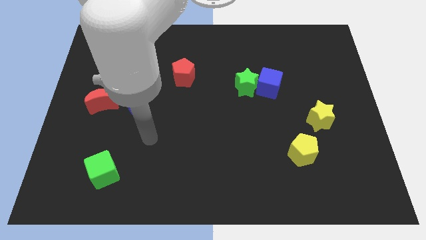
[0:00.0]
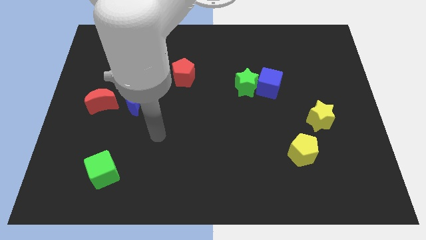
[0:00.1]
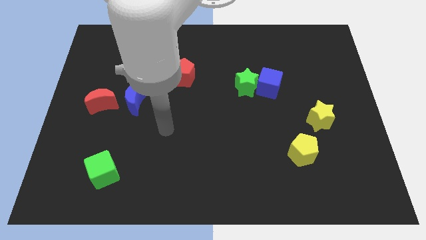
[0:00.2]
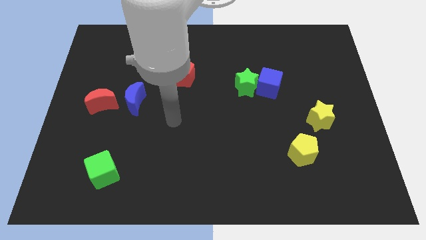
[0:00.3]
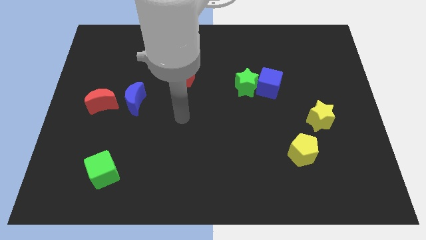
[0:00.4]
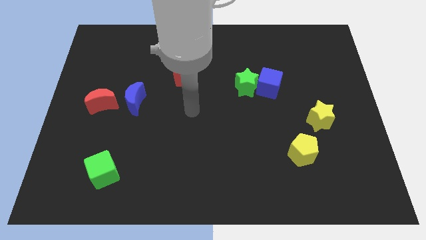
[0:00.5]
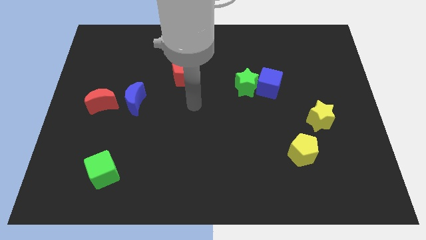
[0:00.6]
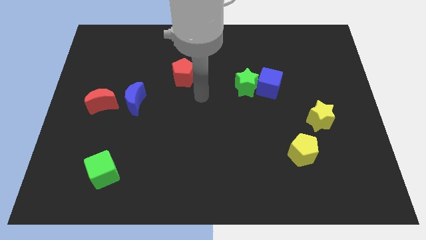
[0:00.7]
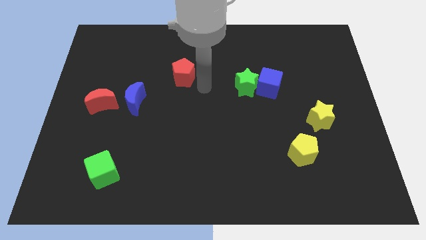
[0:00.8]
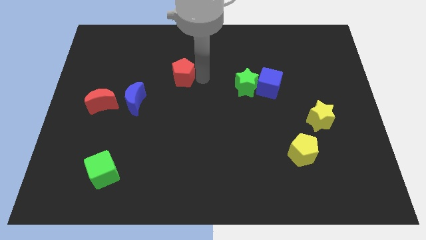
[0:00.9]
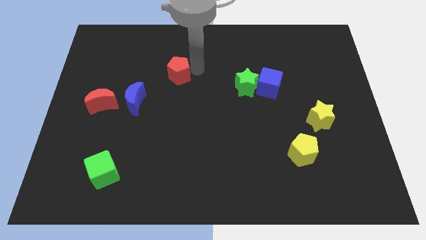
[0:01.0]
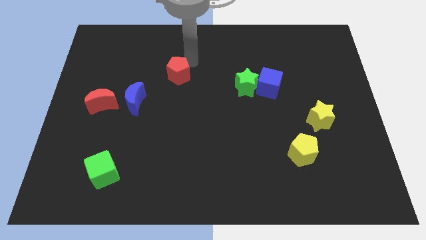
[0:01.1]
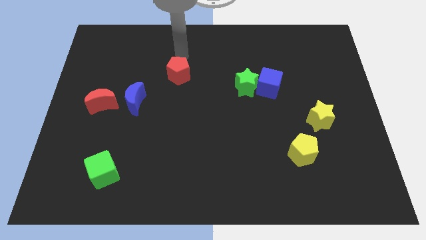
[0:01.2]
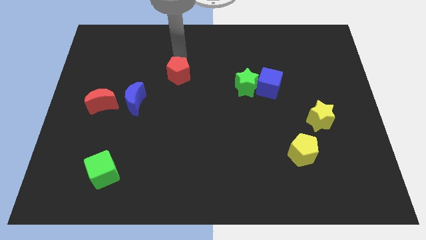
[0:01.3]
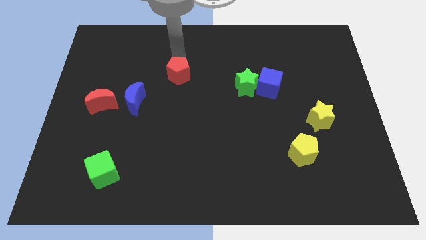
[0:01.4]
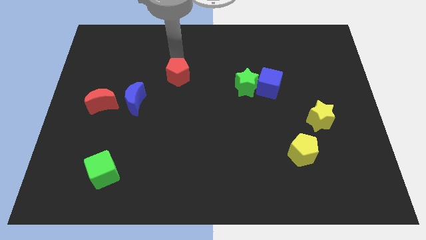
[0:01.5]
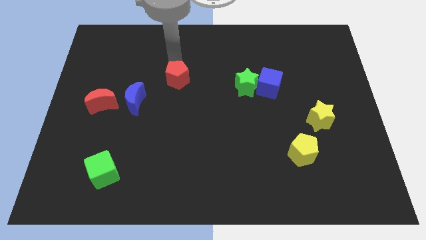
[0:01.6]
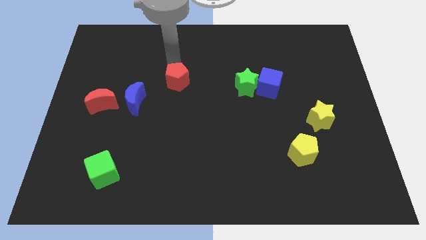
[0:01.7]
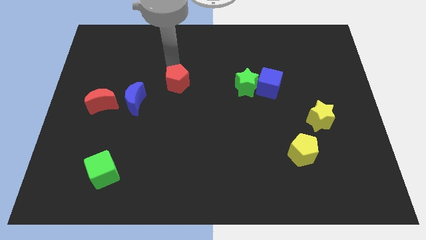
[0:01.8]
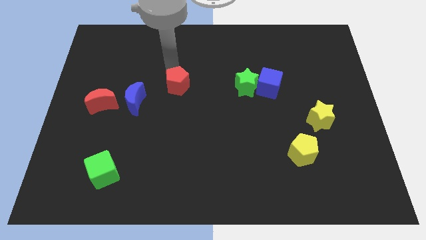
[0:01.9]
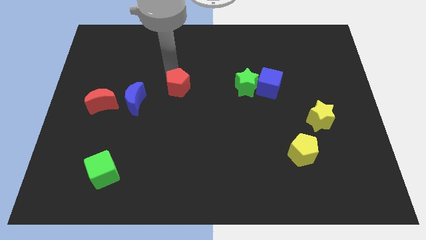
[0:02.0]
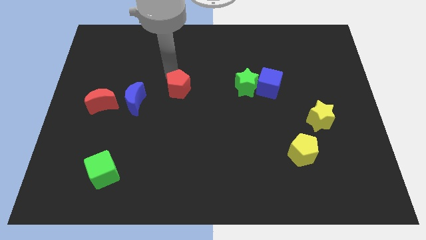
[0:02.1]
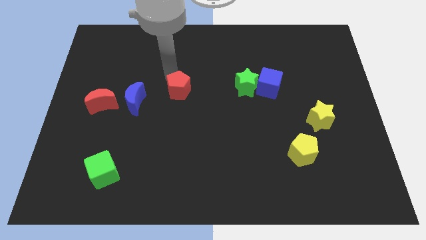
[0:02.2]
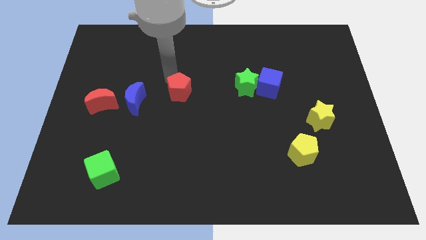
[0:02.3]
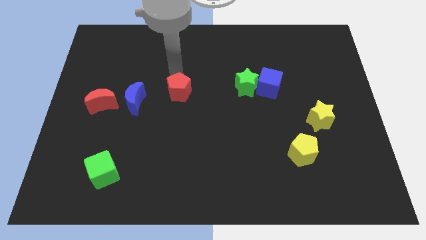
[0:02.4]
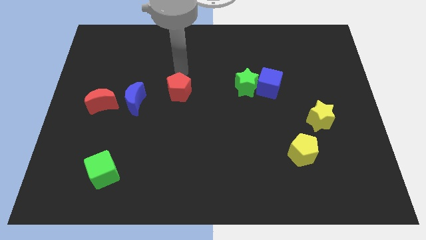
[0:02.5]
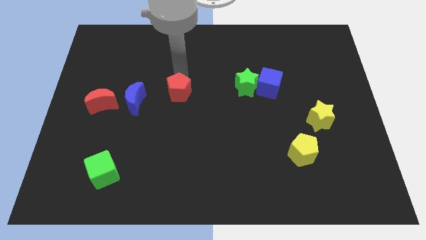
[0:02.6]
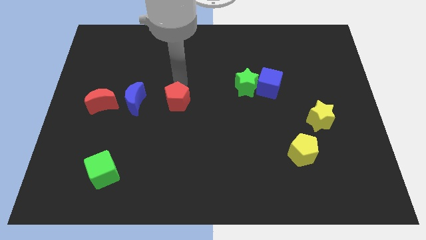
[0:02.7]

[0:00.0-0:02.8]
slightly slide the red pentagon downwards

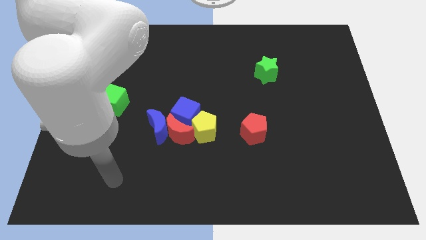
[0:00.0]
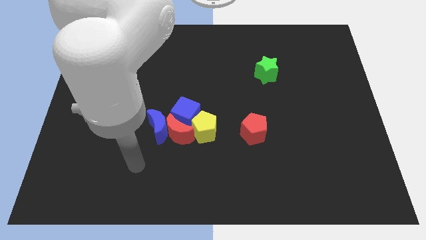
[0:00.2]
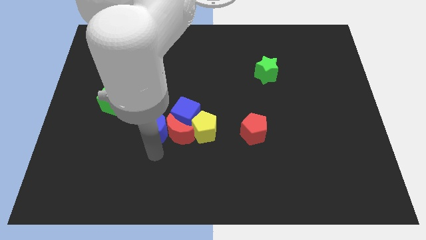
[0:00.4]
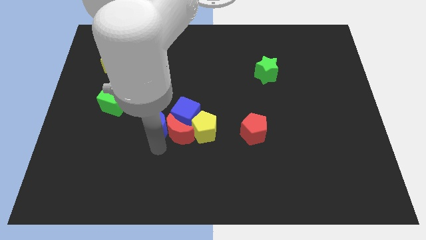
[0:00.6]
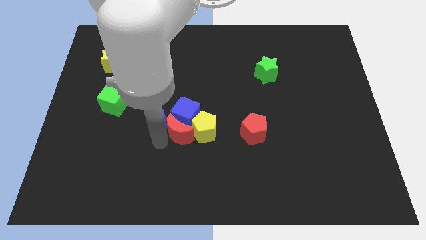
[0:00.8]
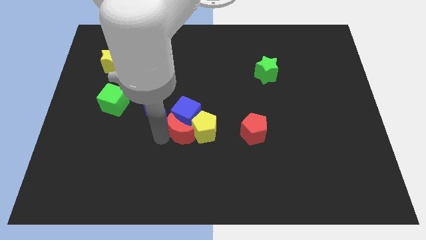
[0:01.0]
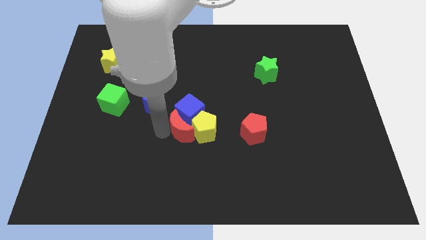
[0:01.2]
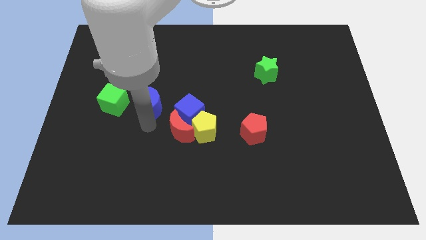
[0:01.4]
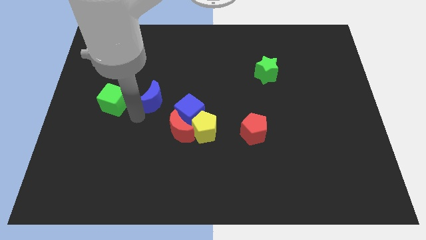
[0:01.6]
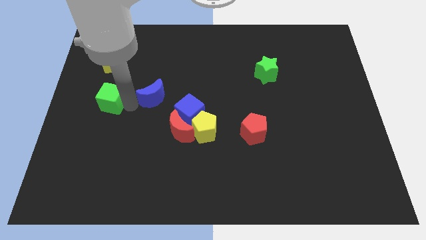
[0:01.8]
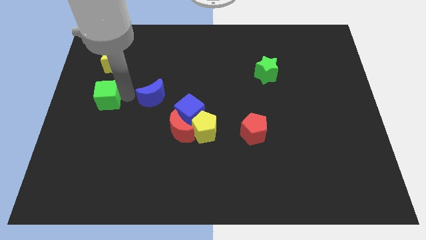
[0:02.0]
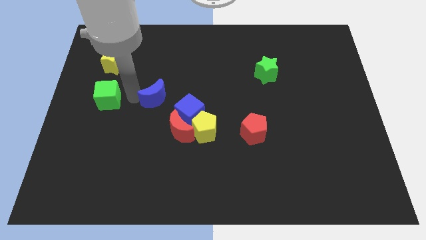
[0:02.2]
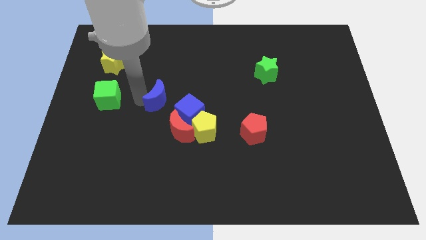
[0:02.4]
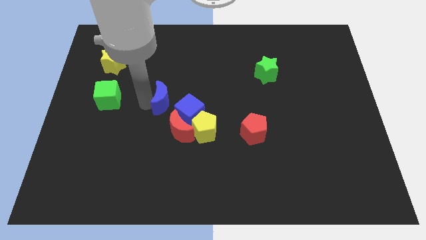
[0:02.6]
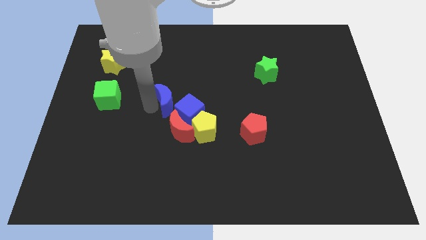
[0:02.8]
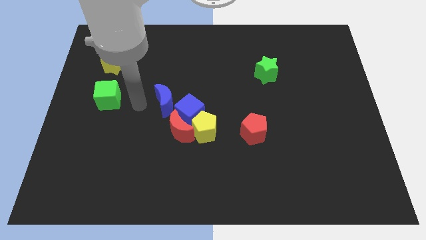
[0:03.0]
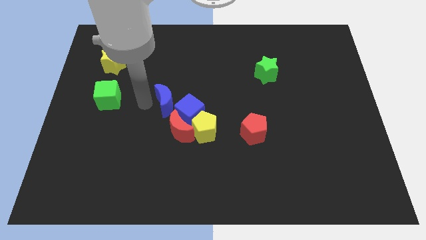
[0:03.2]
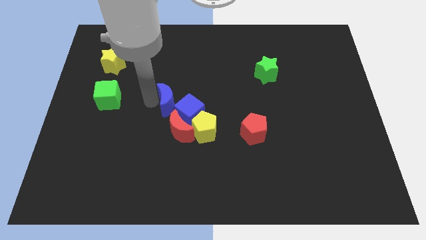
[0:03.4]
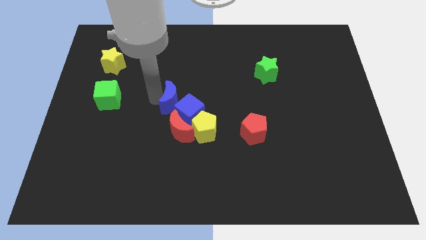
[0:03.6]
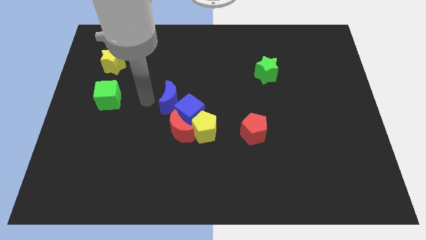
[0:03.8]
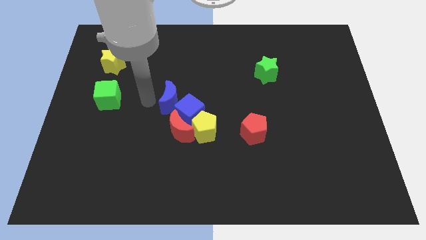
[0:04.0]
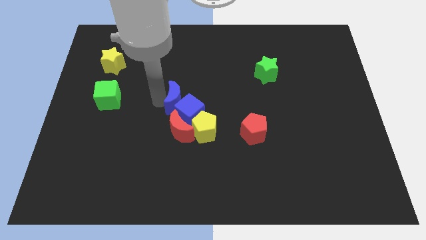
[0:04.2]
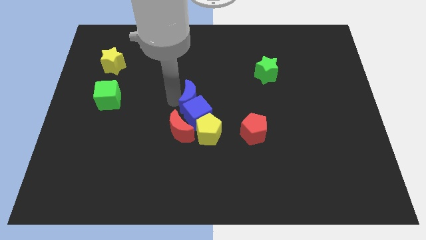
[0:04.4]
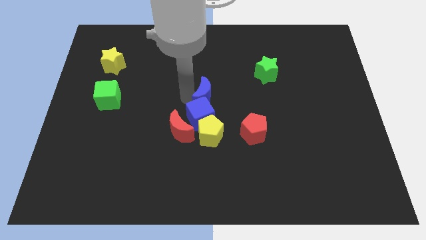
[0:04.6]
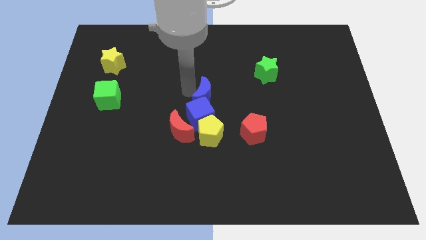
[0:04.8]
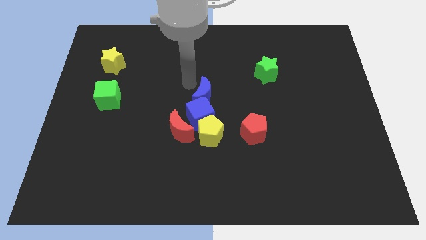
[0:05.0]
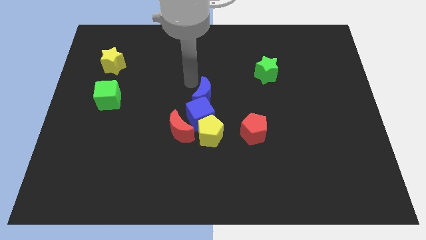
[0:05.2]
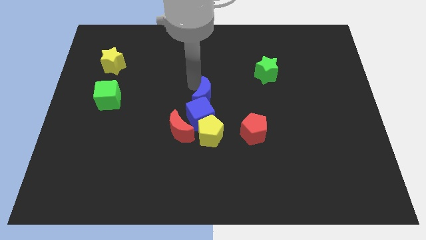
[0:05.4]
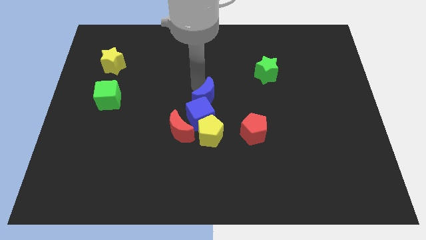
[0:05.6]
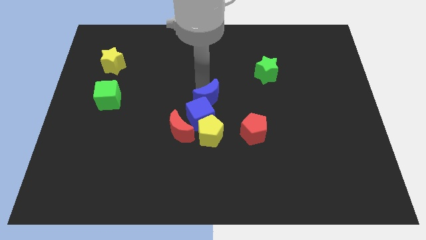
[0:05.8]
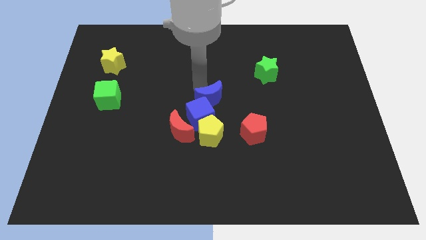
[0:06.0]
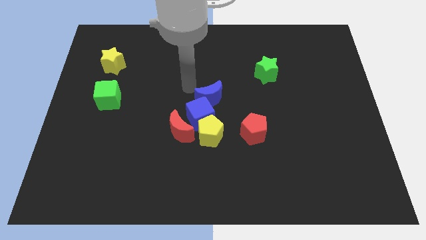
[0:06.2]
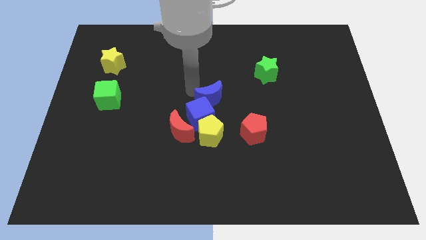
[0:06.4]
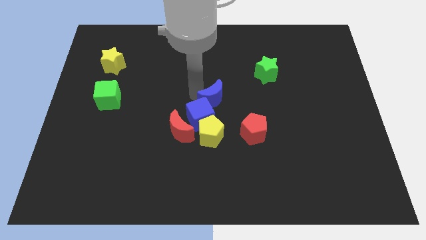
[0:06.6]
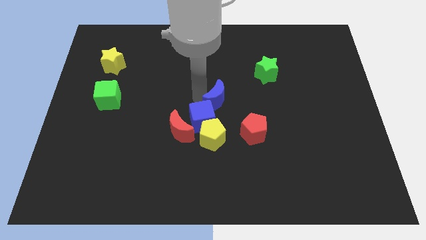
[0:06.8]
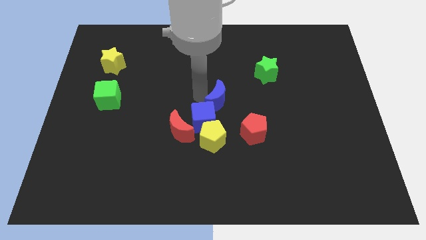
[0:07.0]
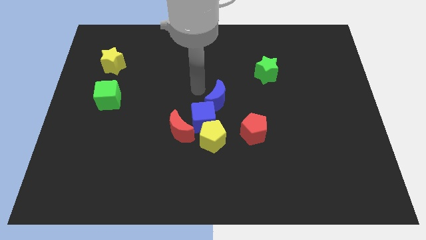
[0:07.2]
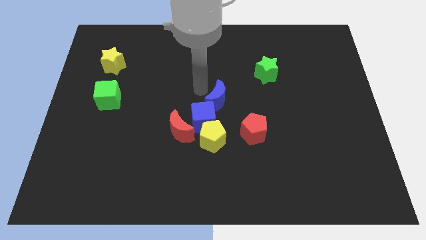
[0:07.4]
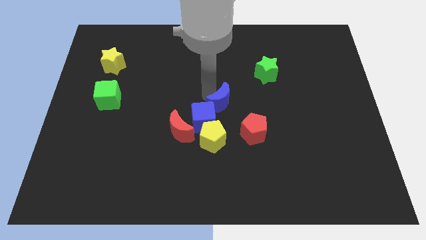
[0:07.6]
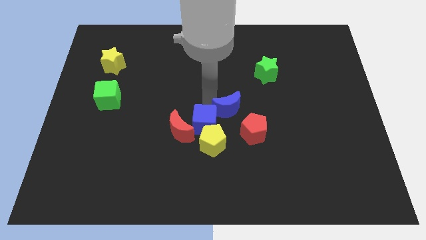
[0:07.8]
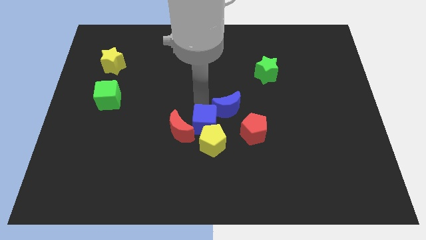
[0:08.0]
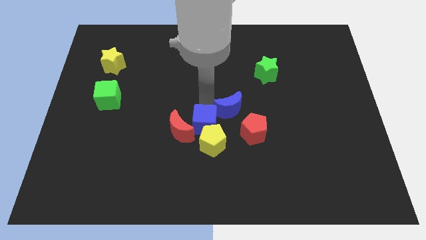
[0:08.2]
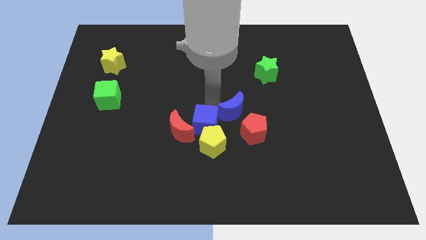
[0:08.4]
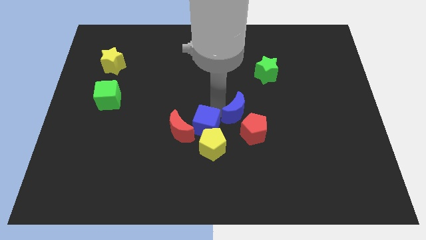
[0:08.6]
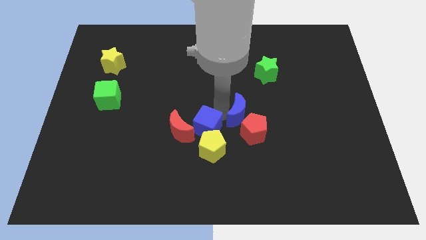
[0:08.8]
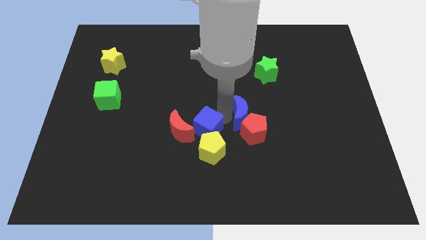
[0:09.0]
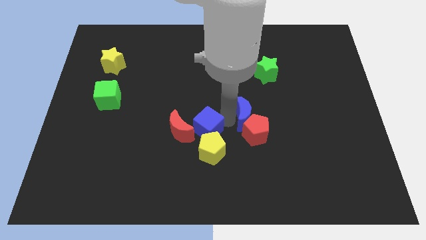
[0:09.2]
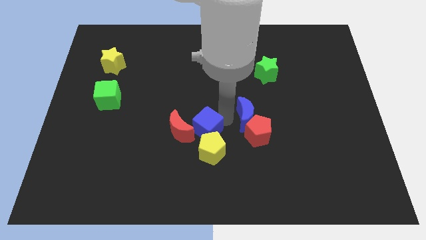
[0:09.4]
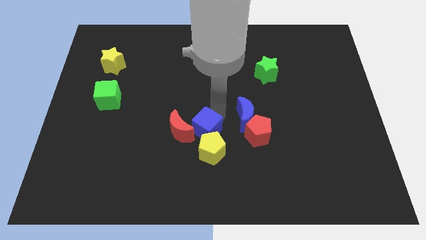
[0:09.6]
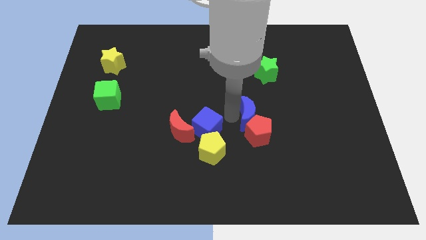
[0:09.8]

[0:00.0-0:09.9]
move the blue moon to the right

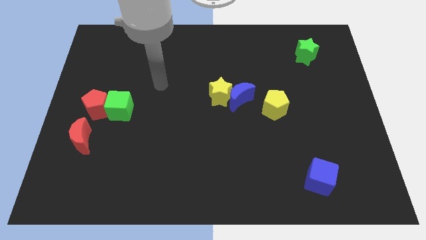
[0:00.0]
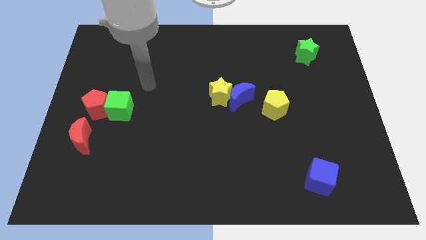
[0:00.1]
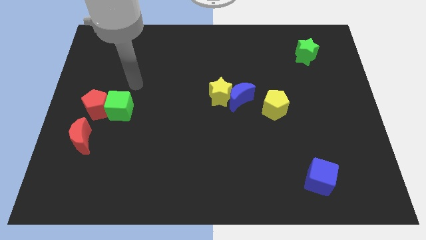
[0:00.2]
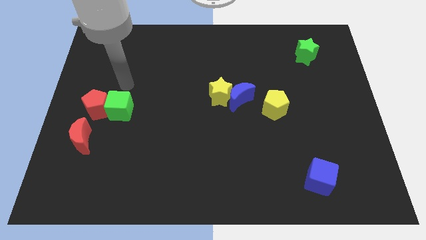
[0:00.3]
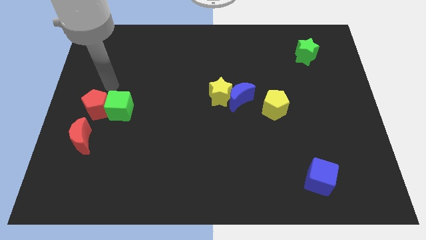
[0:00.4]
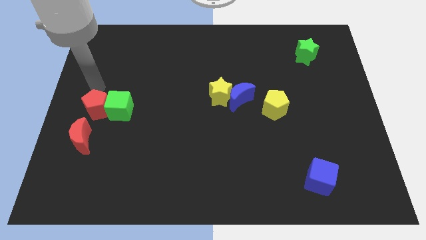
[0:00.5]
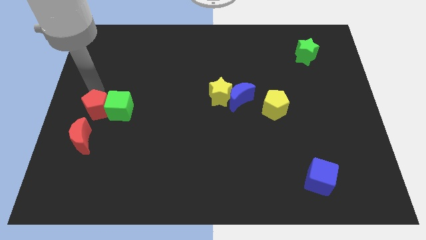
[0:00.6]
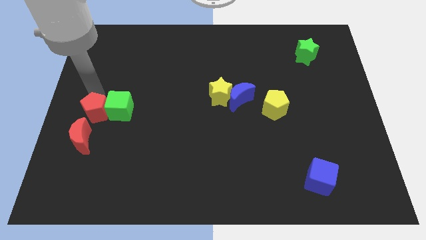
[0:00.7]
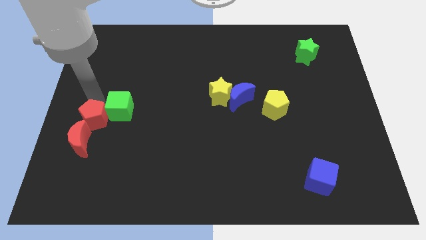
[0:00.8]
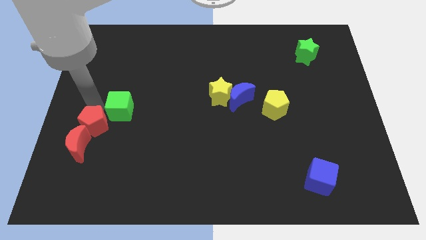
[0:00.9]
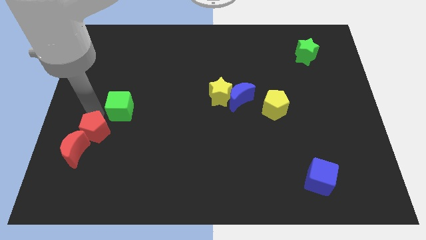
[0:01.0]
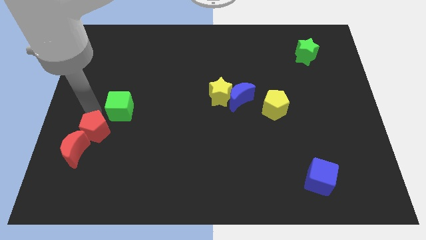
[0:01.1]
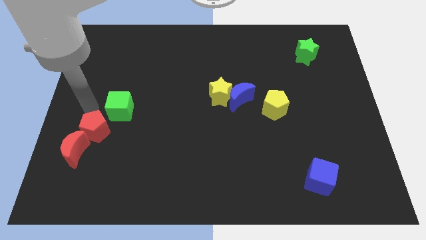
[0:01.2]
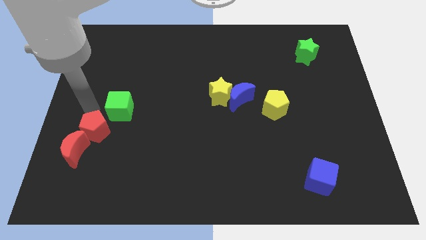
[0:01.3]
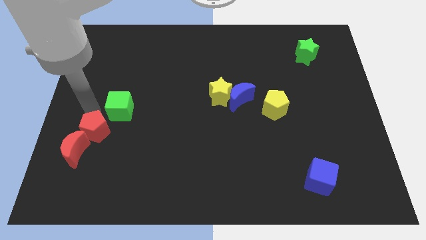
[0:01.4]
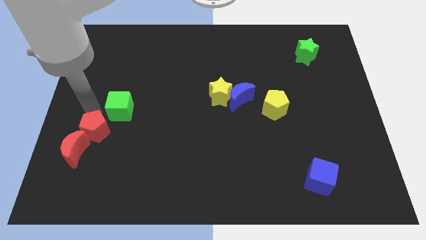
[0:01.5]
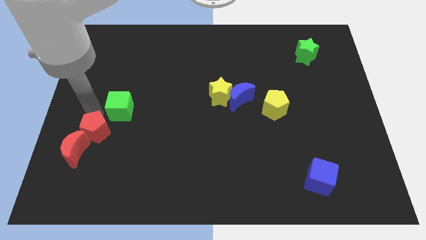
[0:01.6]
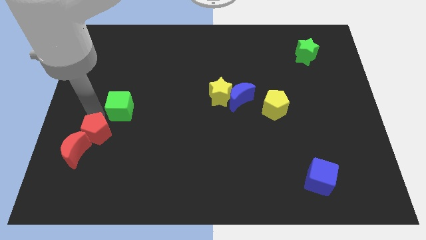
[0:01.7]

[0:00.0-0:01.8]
slide the red pentagon slightly down
